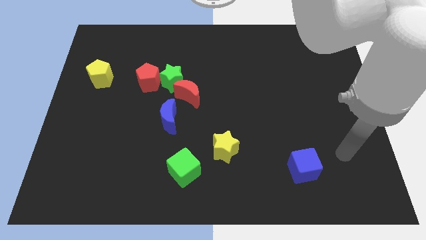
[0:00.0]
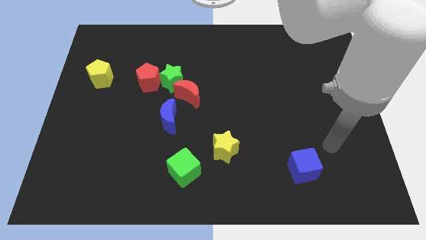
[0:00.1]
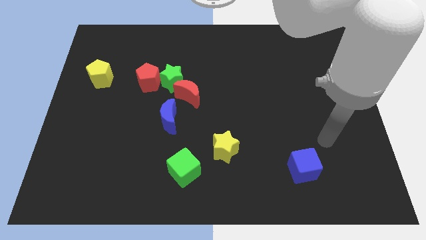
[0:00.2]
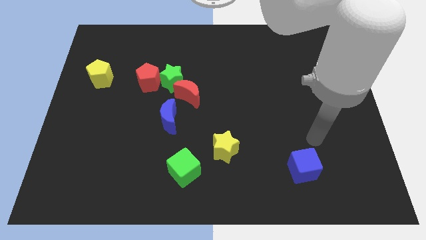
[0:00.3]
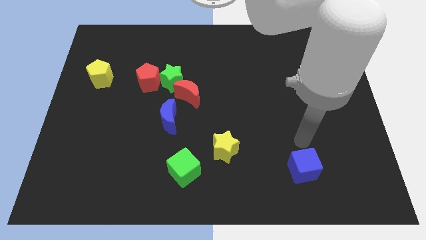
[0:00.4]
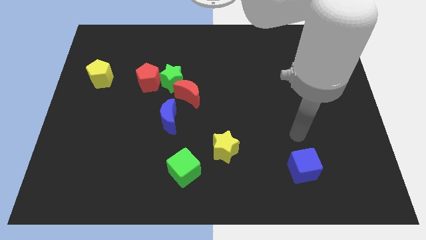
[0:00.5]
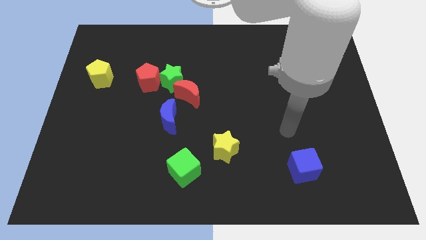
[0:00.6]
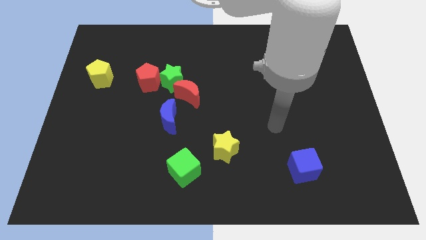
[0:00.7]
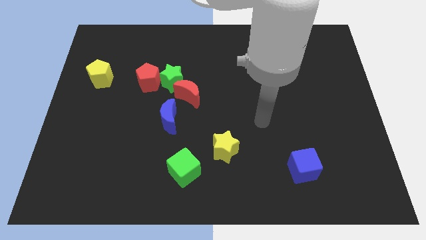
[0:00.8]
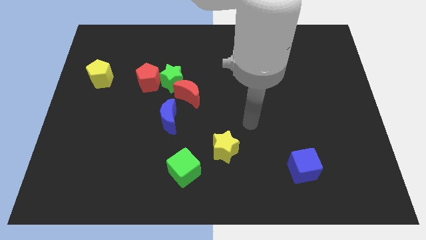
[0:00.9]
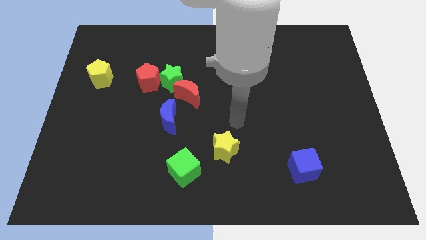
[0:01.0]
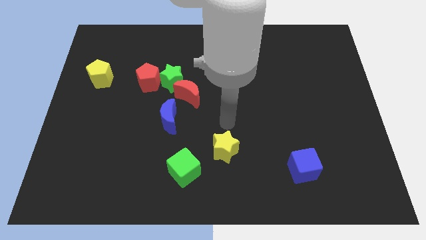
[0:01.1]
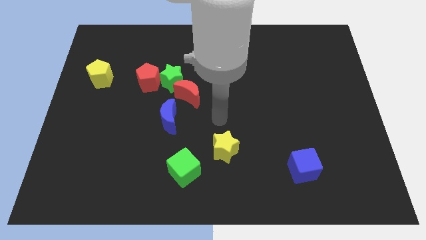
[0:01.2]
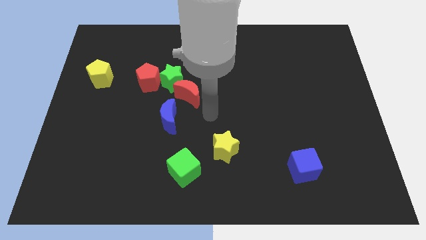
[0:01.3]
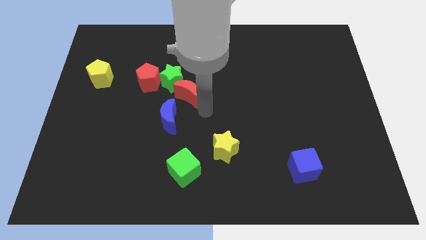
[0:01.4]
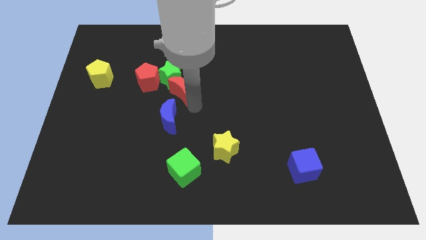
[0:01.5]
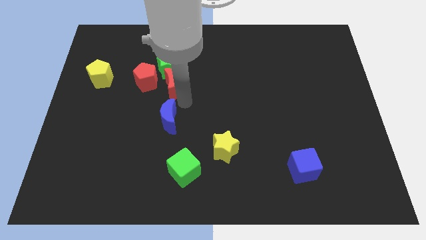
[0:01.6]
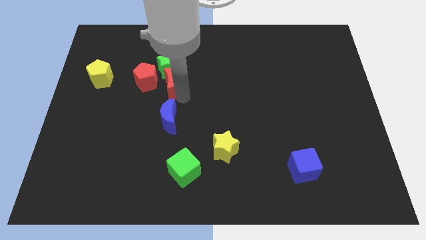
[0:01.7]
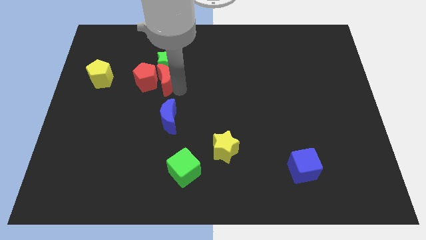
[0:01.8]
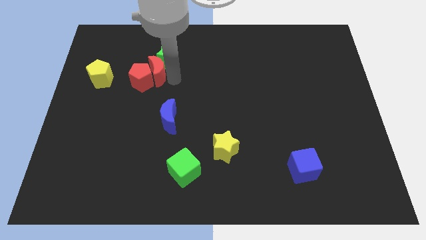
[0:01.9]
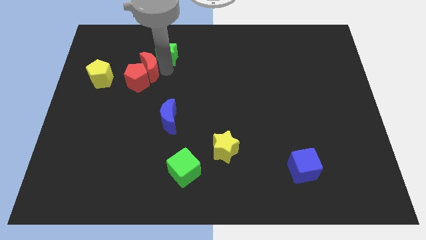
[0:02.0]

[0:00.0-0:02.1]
separate the red pentagon from the green star

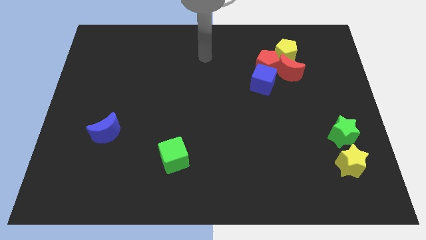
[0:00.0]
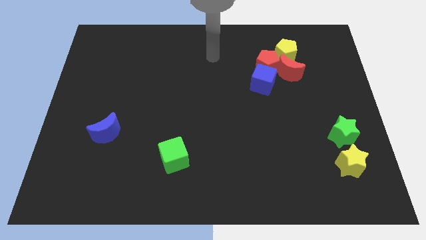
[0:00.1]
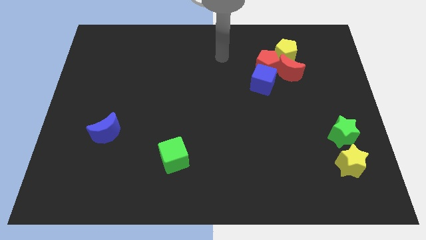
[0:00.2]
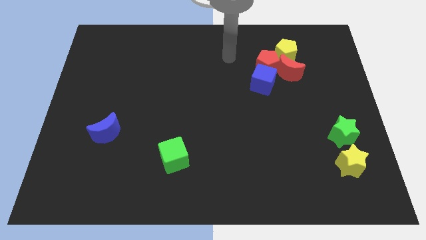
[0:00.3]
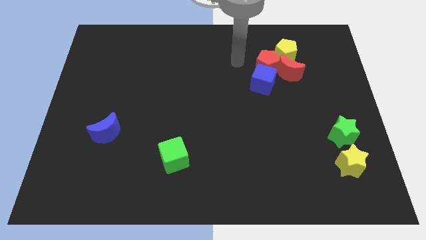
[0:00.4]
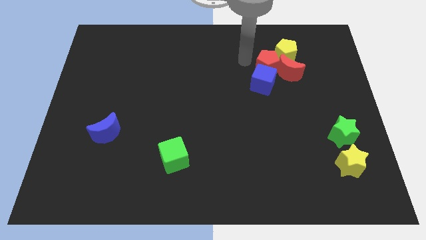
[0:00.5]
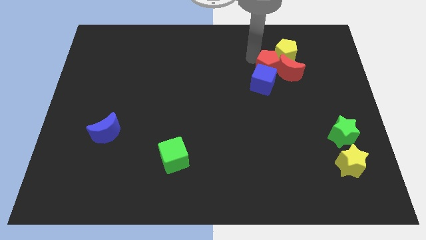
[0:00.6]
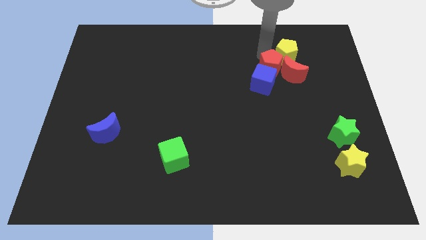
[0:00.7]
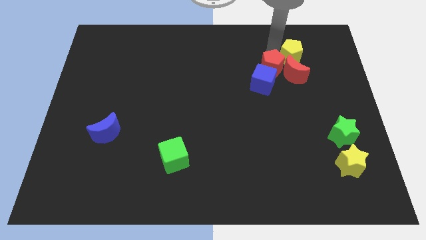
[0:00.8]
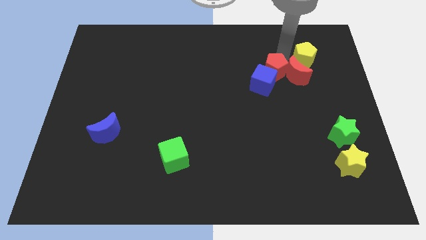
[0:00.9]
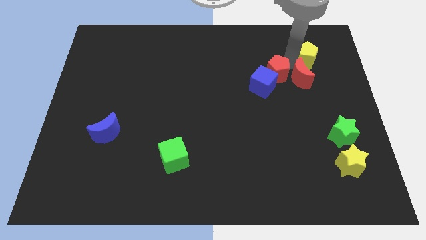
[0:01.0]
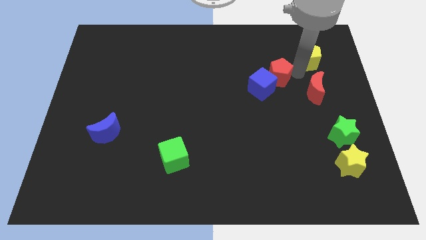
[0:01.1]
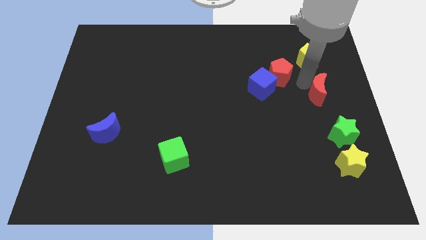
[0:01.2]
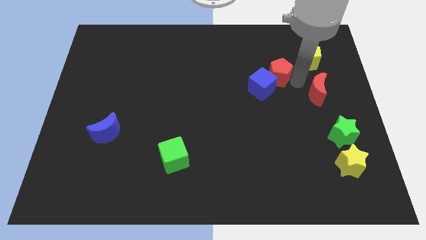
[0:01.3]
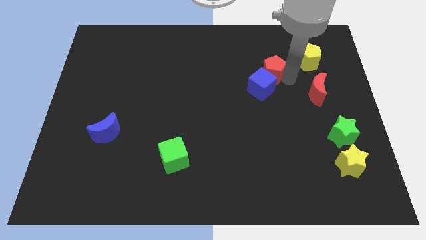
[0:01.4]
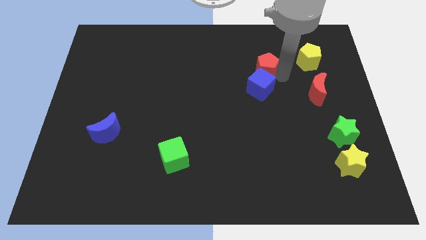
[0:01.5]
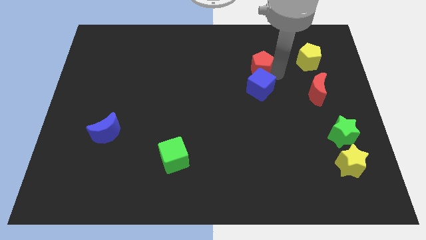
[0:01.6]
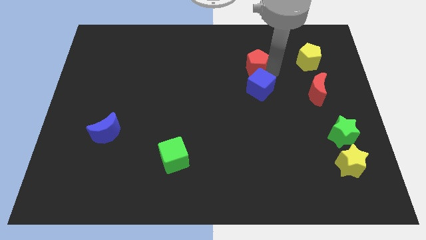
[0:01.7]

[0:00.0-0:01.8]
move the red pentagon away from the red moon, blue cube, and yellow pentagon

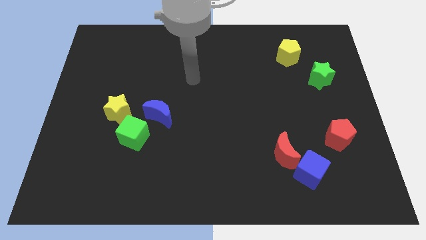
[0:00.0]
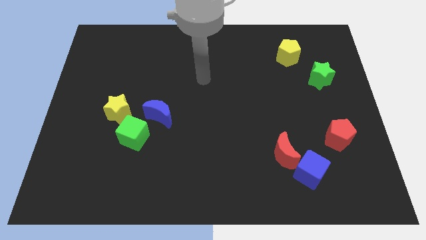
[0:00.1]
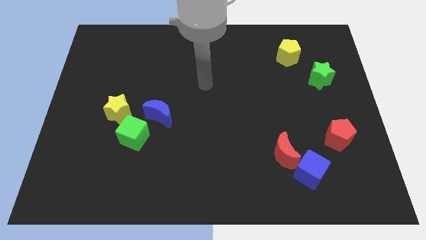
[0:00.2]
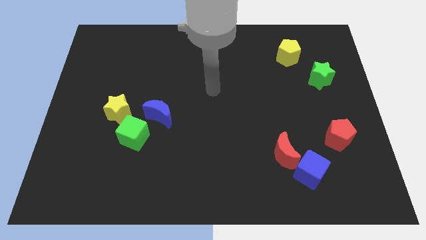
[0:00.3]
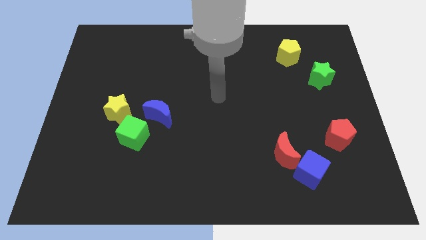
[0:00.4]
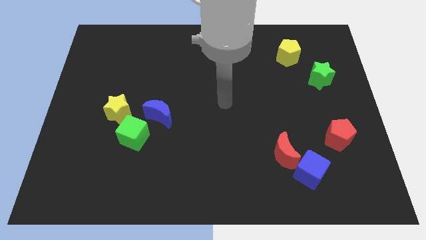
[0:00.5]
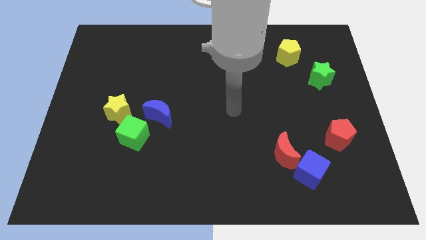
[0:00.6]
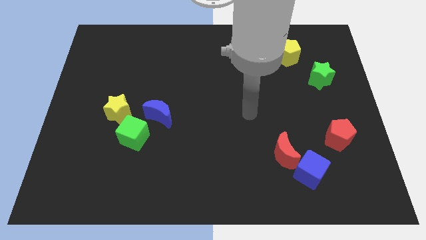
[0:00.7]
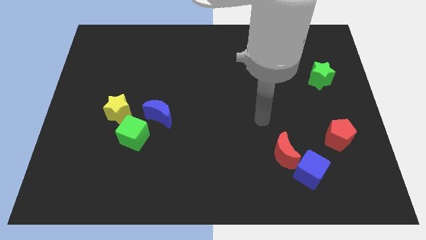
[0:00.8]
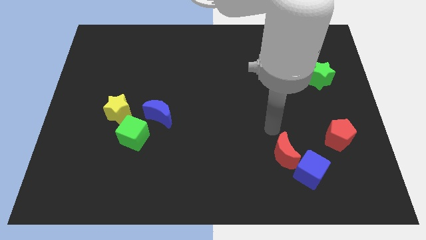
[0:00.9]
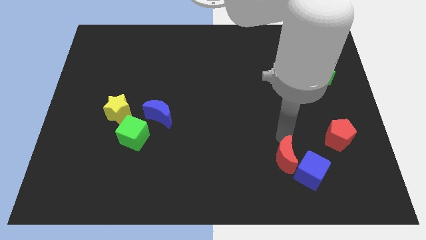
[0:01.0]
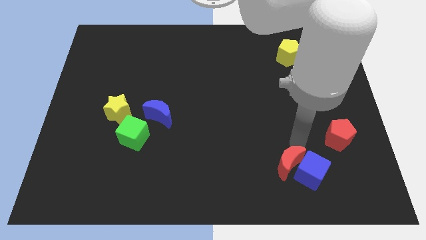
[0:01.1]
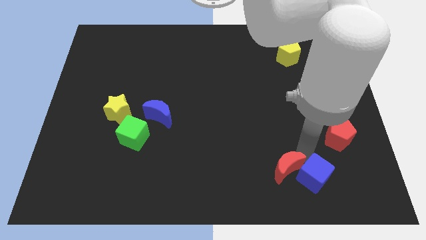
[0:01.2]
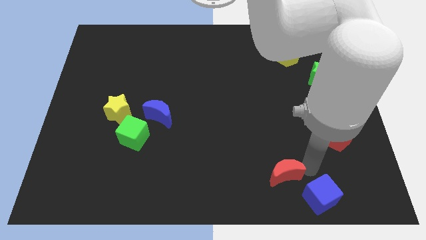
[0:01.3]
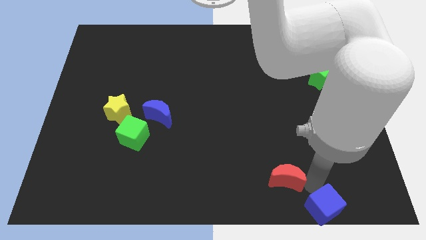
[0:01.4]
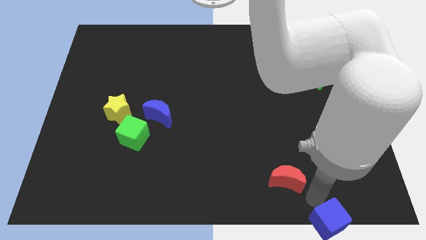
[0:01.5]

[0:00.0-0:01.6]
move the red moon away from the blue cube

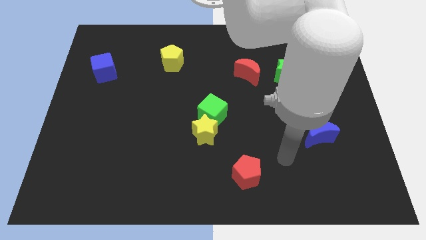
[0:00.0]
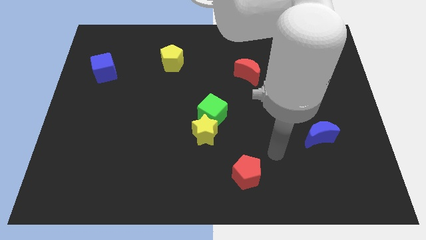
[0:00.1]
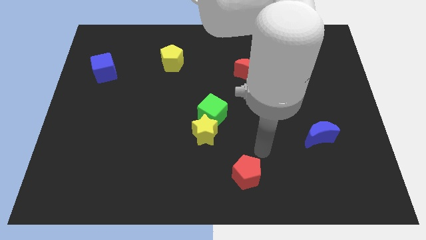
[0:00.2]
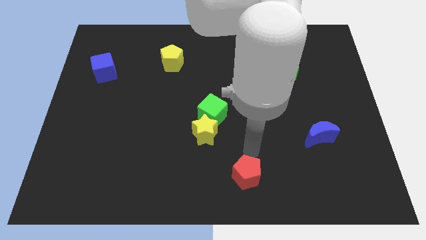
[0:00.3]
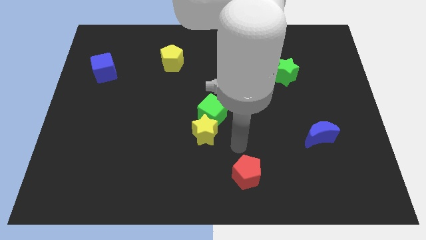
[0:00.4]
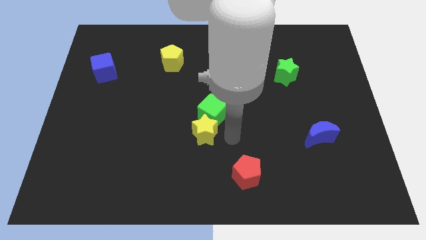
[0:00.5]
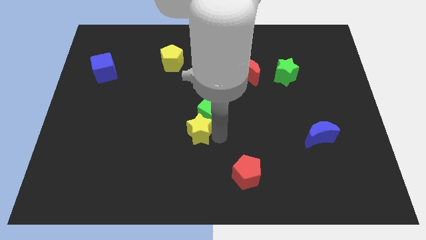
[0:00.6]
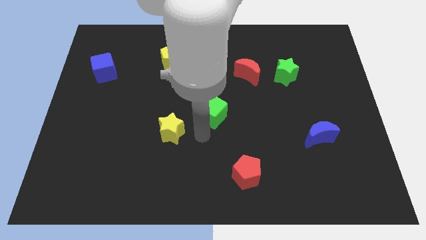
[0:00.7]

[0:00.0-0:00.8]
move the green cube away from the yellow star

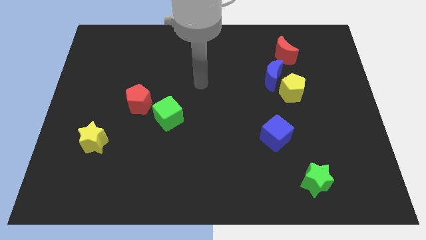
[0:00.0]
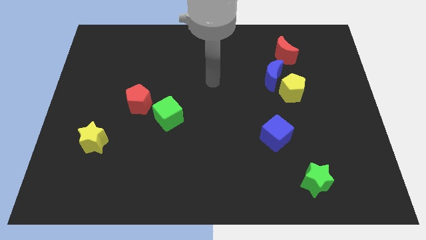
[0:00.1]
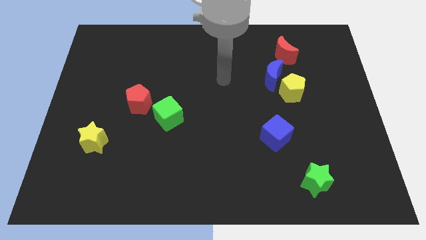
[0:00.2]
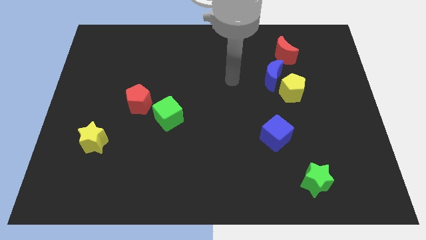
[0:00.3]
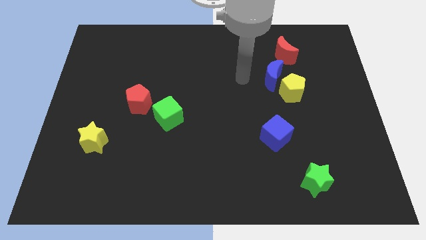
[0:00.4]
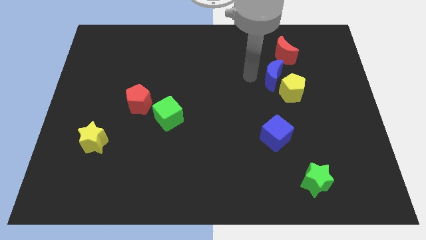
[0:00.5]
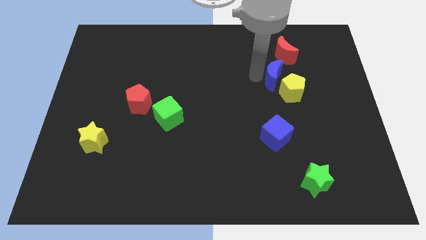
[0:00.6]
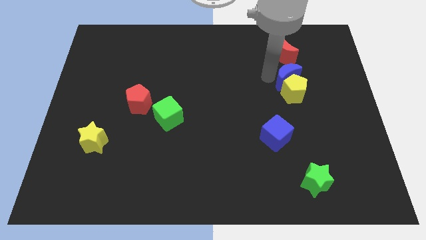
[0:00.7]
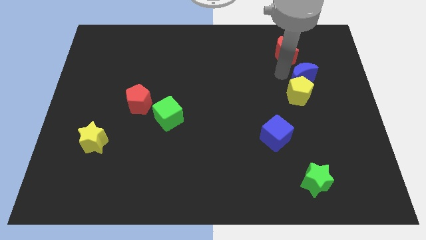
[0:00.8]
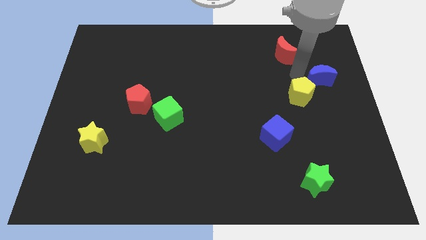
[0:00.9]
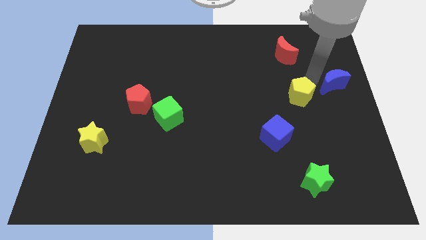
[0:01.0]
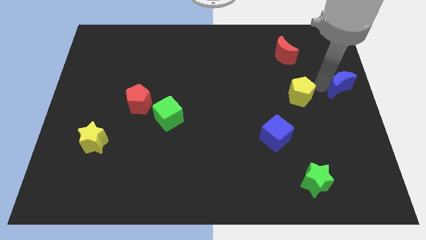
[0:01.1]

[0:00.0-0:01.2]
separate the yellow pentagon from the blue moon

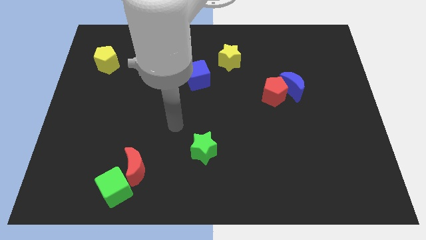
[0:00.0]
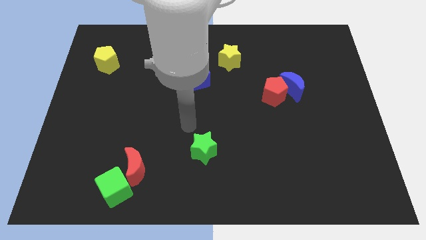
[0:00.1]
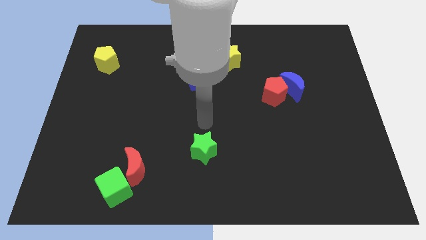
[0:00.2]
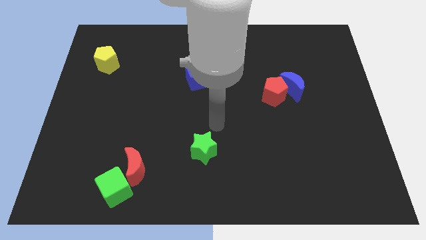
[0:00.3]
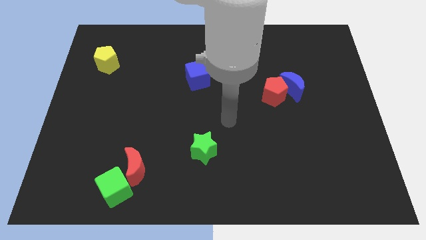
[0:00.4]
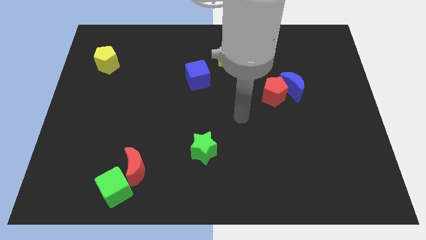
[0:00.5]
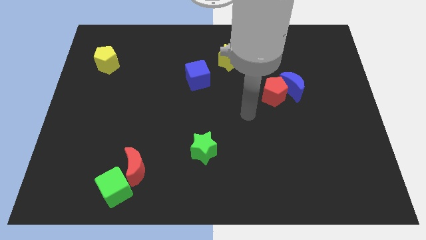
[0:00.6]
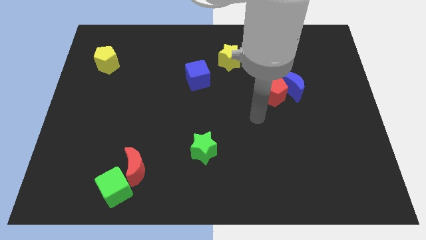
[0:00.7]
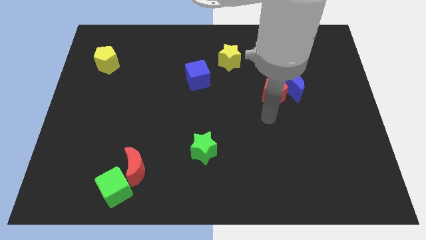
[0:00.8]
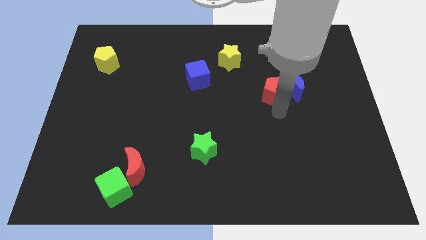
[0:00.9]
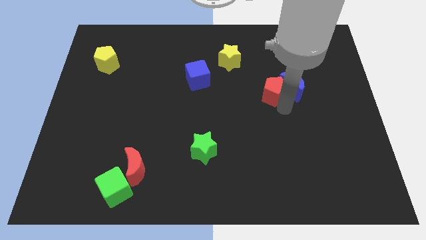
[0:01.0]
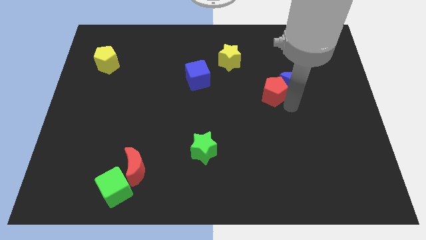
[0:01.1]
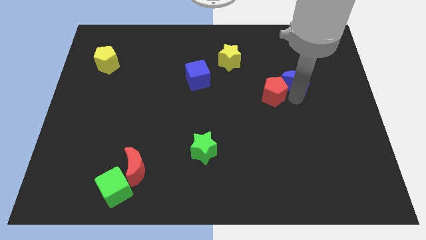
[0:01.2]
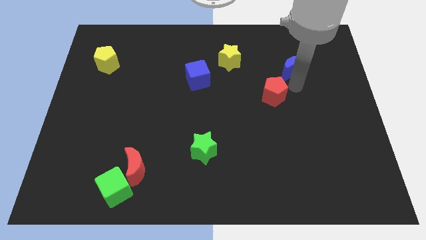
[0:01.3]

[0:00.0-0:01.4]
separate the red pentagon from the blue moon

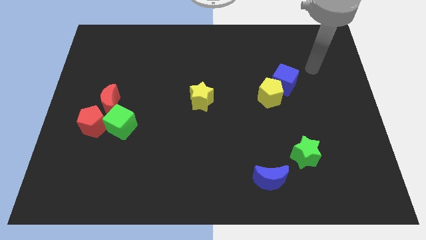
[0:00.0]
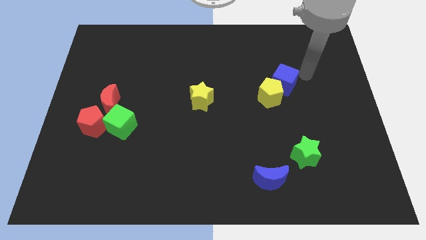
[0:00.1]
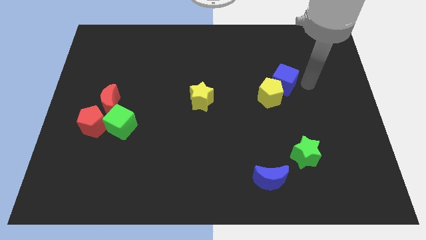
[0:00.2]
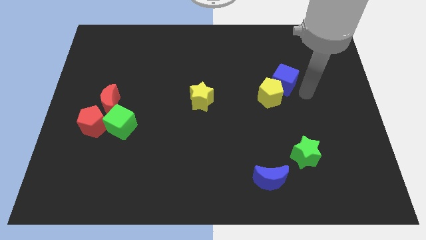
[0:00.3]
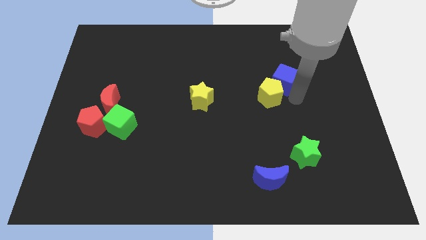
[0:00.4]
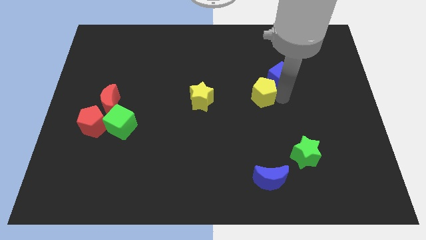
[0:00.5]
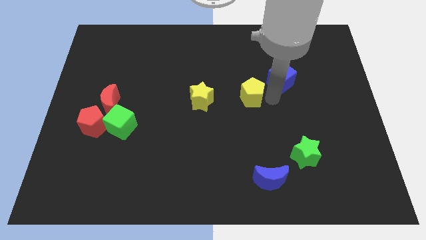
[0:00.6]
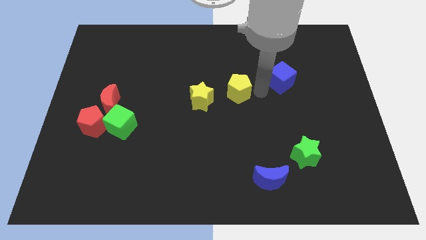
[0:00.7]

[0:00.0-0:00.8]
move the blue cube away from the yellow pentagon
